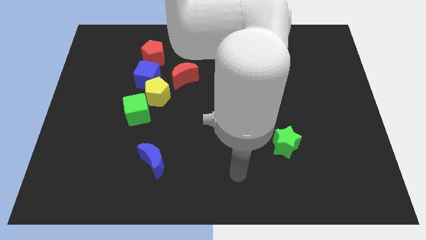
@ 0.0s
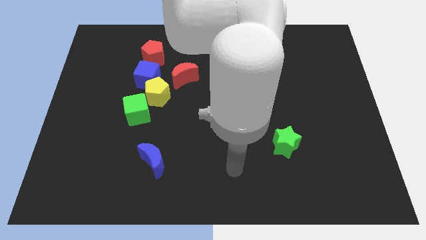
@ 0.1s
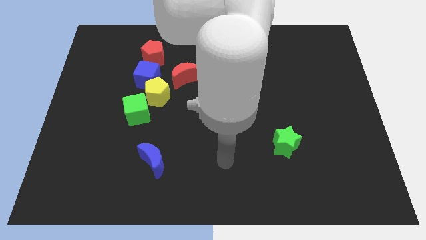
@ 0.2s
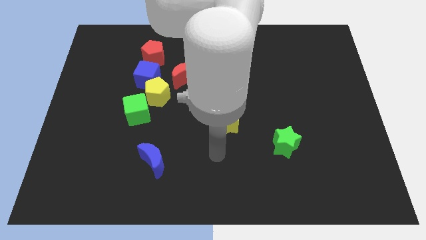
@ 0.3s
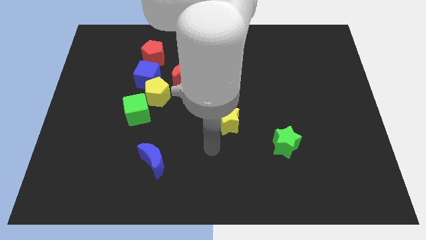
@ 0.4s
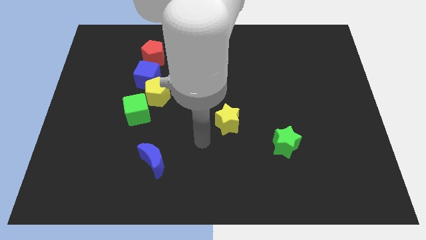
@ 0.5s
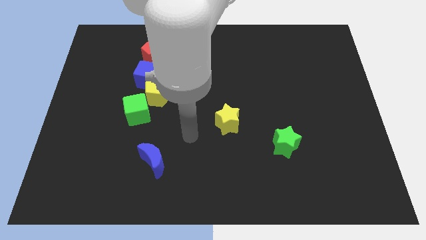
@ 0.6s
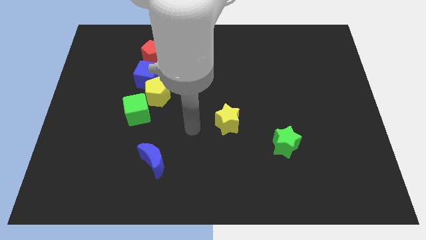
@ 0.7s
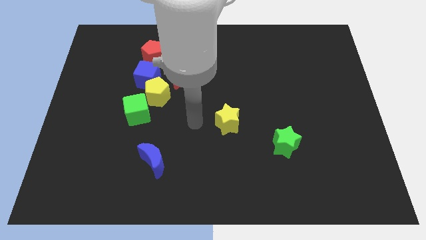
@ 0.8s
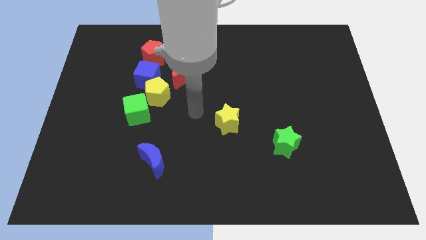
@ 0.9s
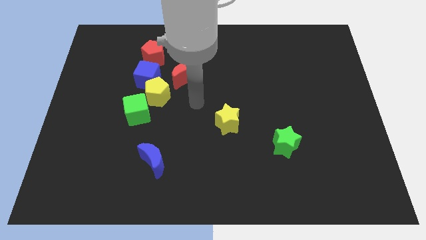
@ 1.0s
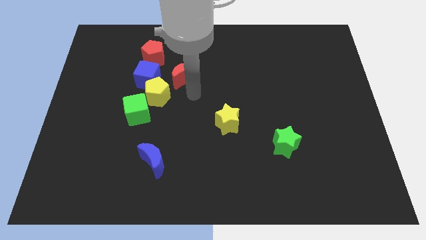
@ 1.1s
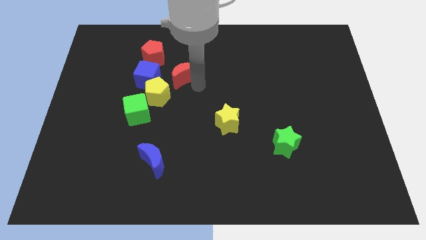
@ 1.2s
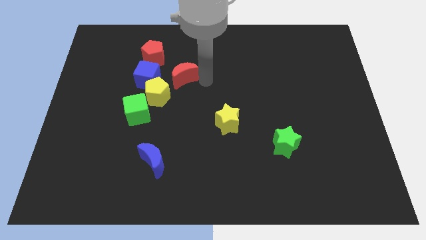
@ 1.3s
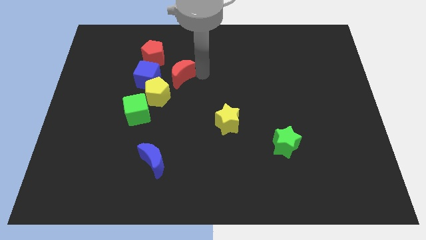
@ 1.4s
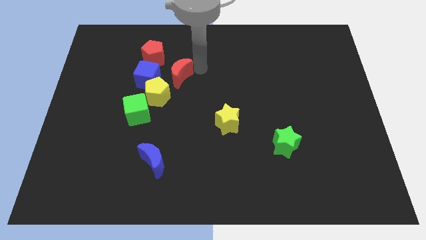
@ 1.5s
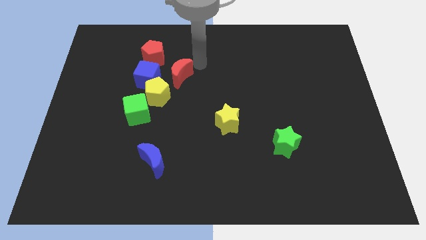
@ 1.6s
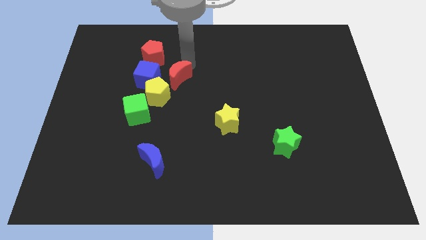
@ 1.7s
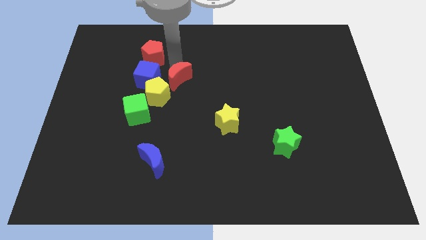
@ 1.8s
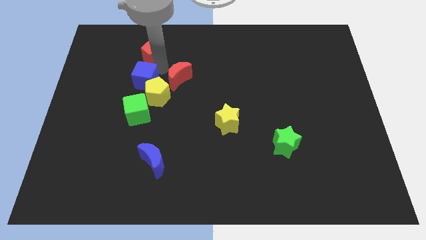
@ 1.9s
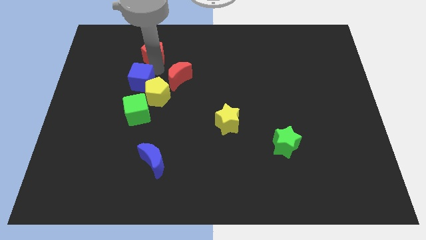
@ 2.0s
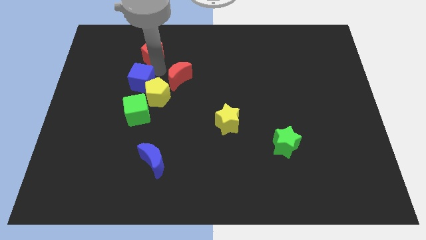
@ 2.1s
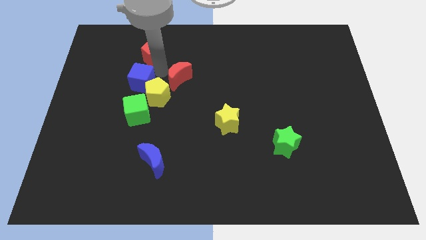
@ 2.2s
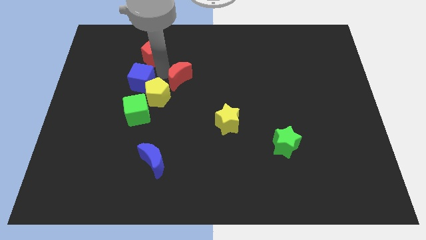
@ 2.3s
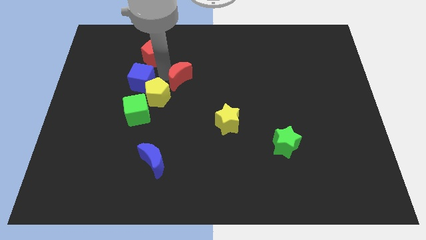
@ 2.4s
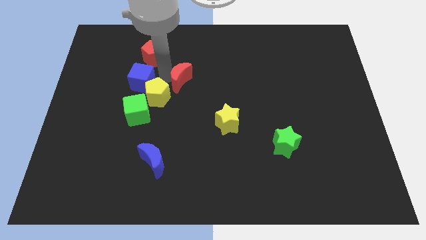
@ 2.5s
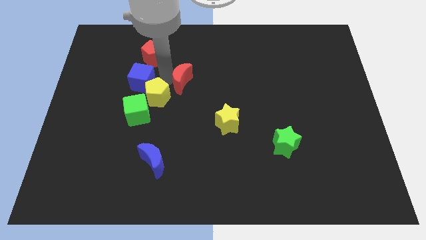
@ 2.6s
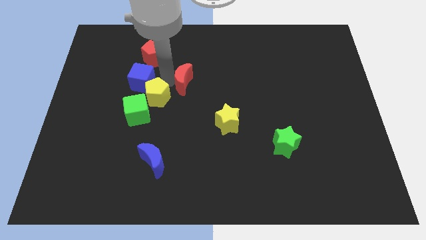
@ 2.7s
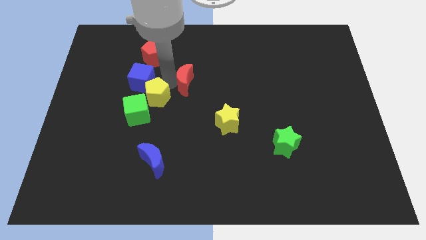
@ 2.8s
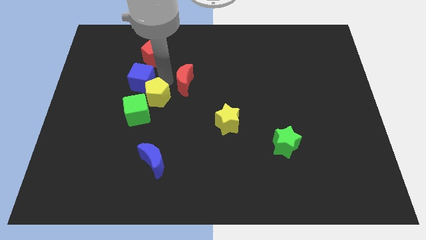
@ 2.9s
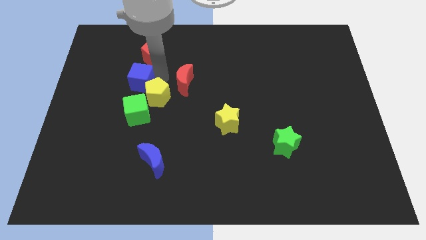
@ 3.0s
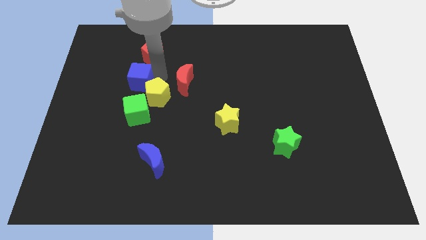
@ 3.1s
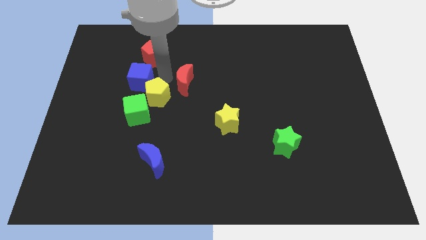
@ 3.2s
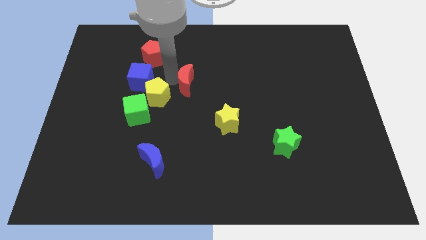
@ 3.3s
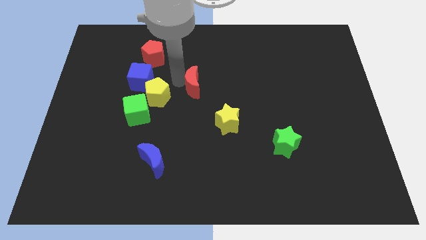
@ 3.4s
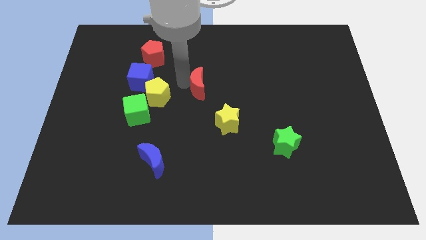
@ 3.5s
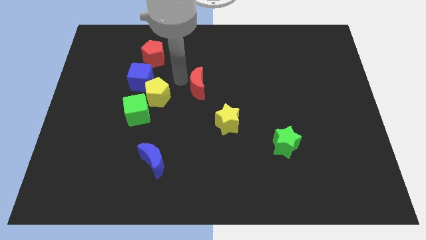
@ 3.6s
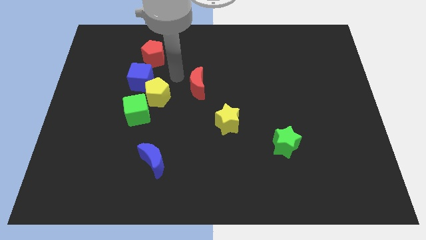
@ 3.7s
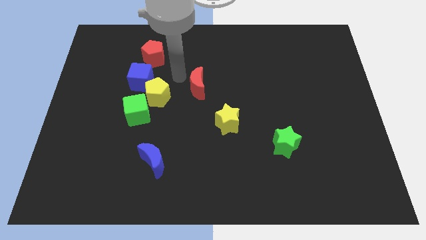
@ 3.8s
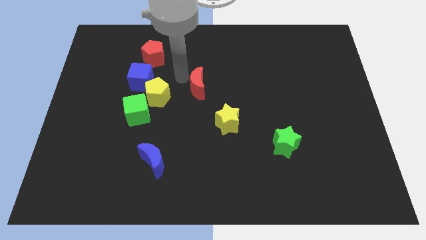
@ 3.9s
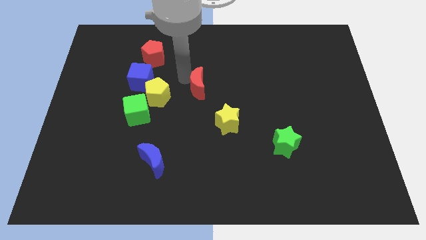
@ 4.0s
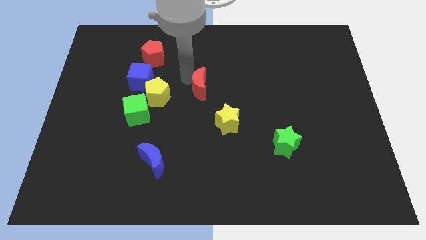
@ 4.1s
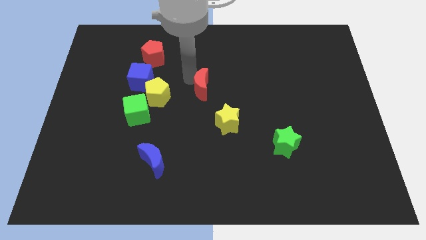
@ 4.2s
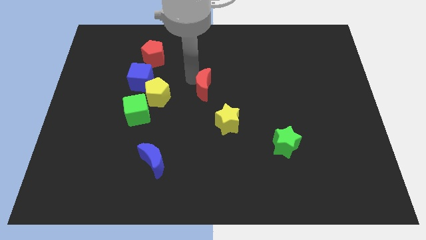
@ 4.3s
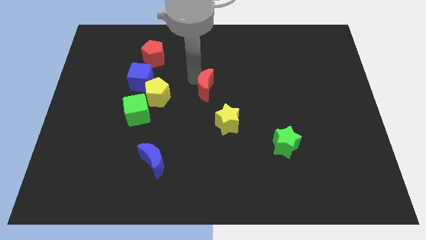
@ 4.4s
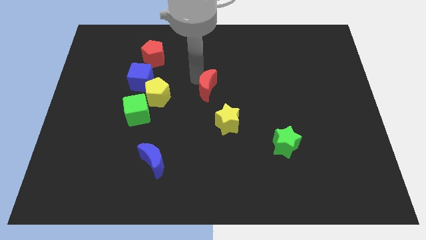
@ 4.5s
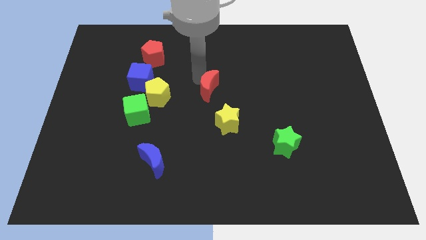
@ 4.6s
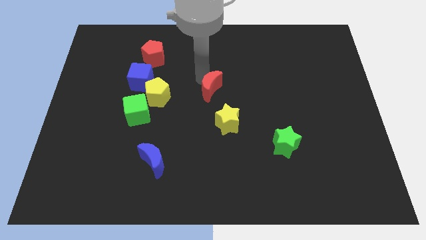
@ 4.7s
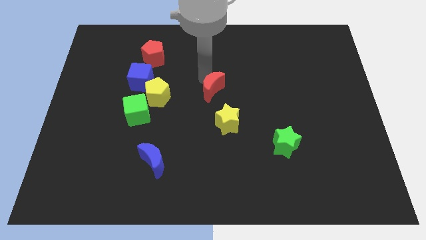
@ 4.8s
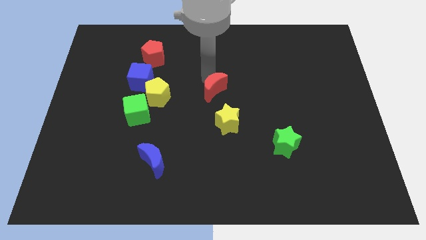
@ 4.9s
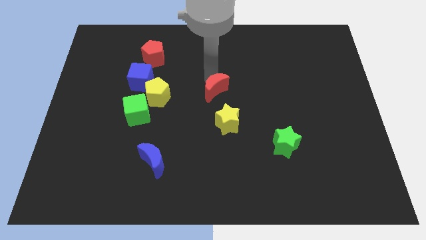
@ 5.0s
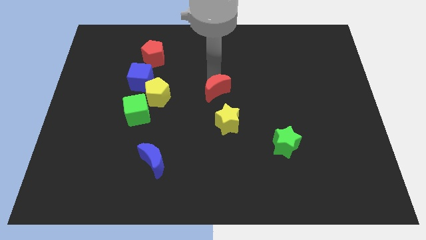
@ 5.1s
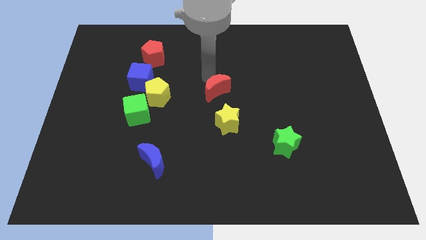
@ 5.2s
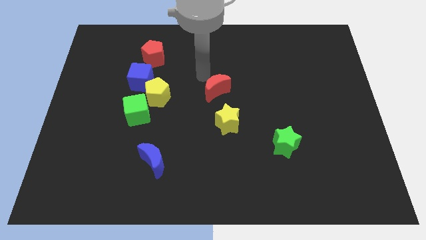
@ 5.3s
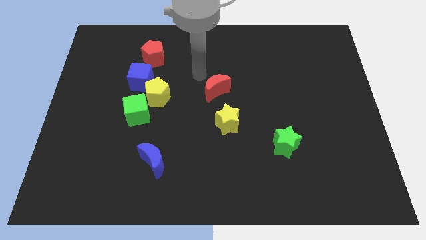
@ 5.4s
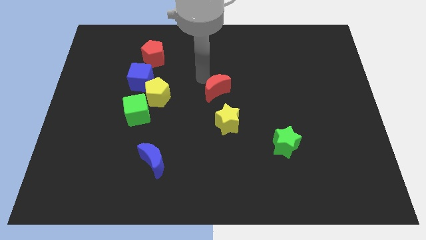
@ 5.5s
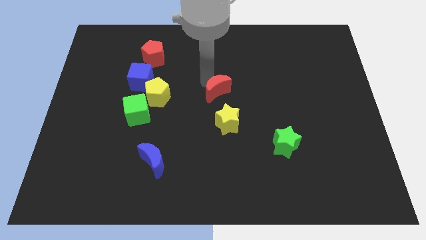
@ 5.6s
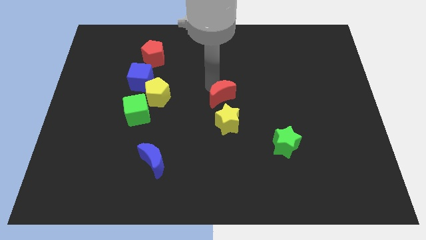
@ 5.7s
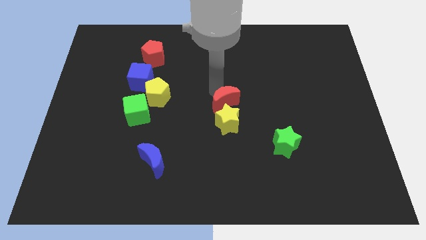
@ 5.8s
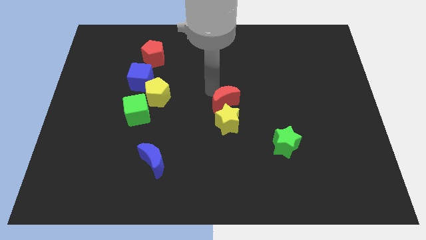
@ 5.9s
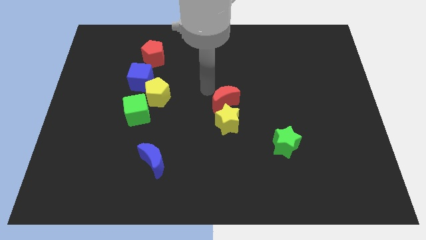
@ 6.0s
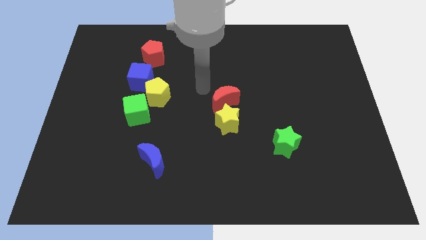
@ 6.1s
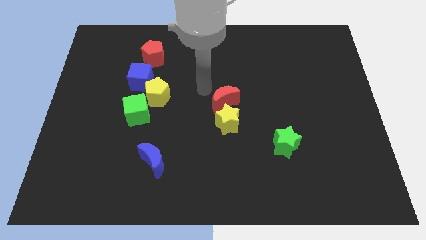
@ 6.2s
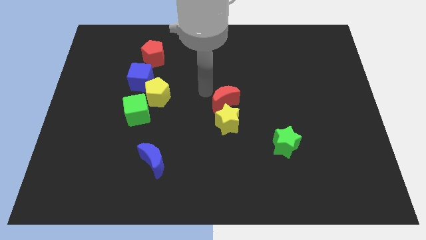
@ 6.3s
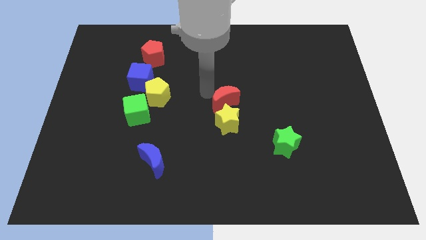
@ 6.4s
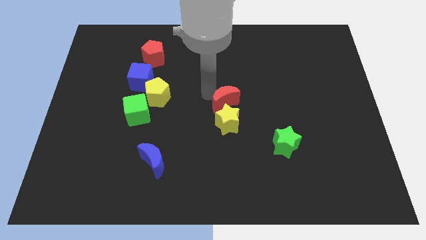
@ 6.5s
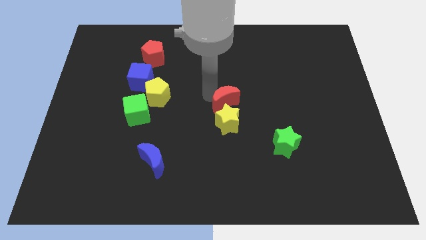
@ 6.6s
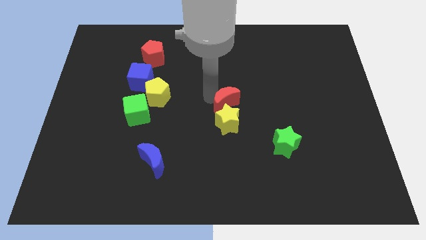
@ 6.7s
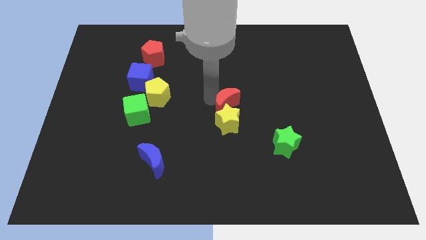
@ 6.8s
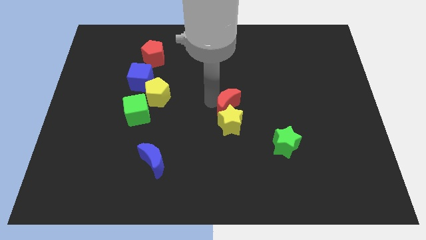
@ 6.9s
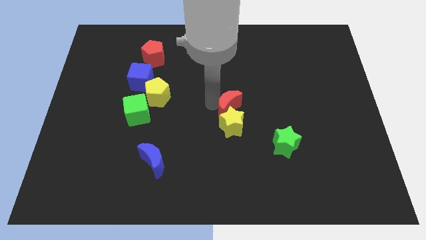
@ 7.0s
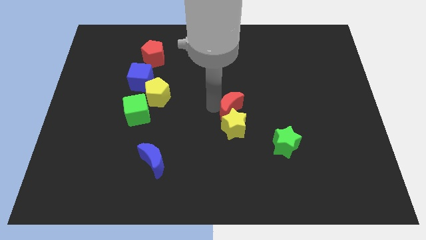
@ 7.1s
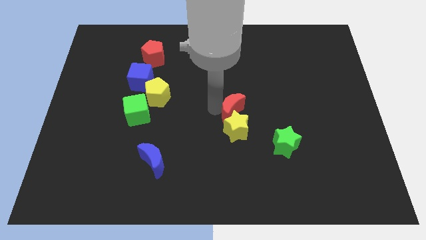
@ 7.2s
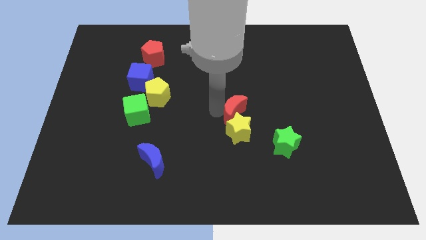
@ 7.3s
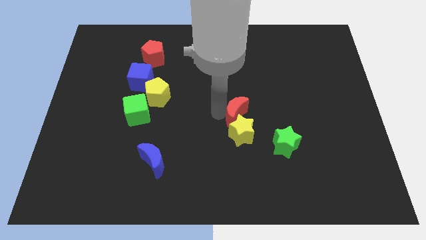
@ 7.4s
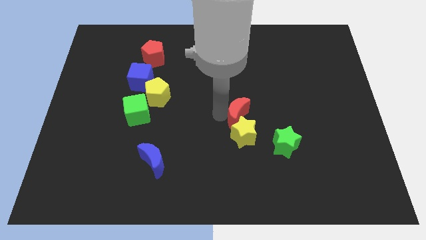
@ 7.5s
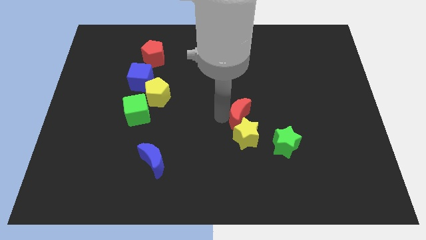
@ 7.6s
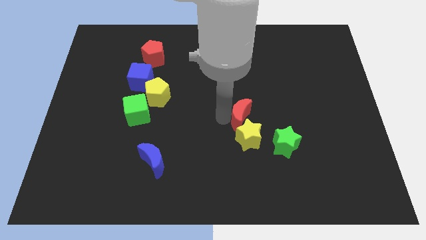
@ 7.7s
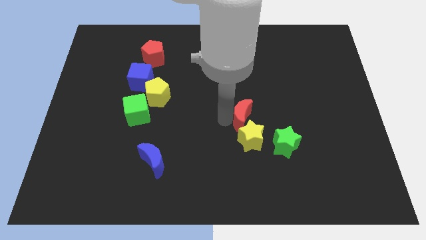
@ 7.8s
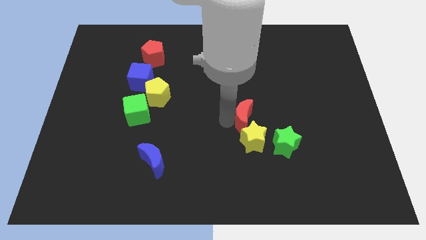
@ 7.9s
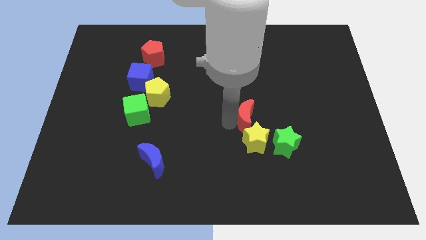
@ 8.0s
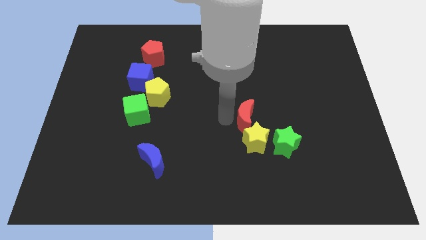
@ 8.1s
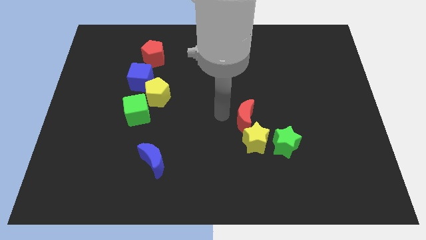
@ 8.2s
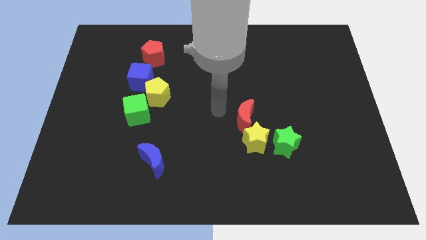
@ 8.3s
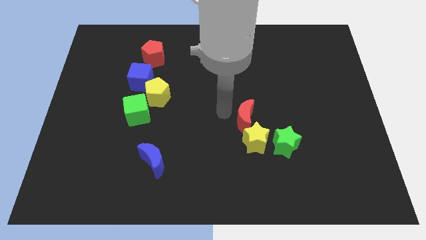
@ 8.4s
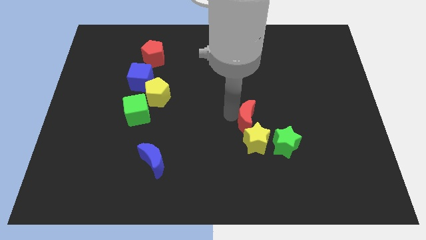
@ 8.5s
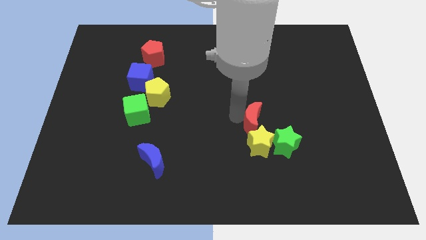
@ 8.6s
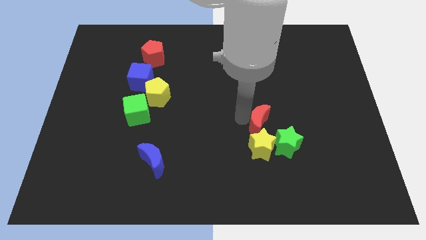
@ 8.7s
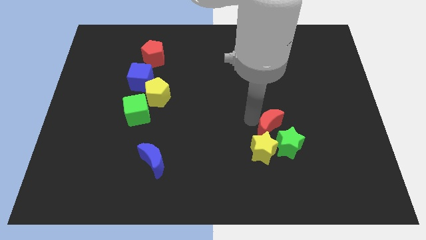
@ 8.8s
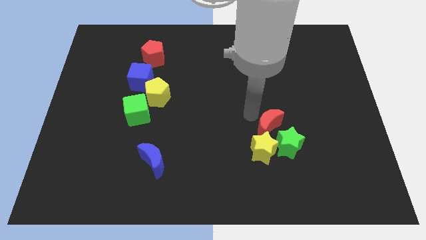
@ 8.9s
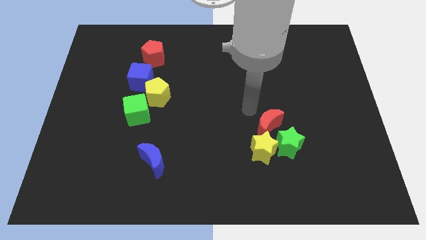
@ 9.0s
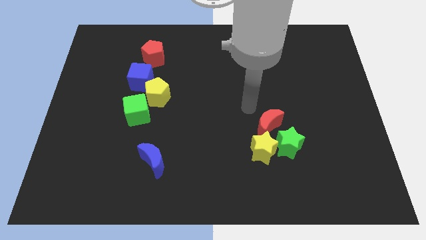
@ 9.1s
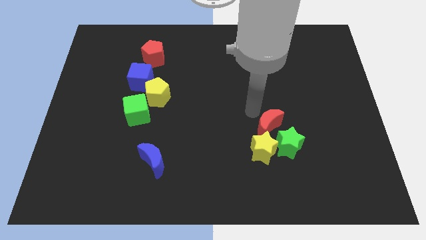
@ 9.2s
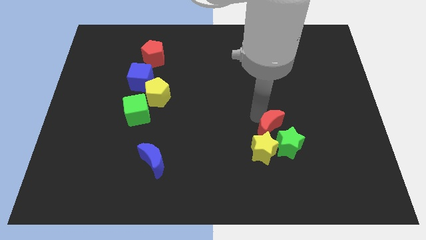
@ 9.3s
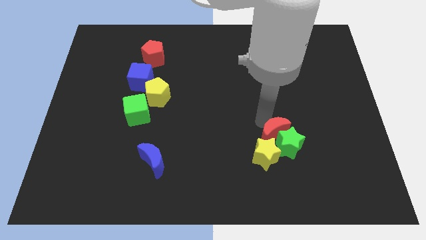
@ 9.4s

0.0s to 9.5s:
move the red moon towards the green star
